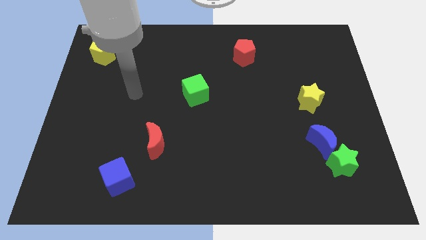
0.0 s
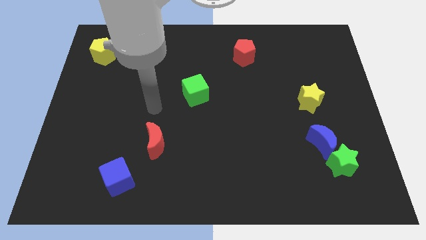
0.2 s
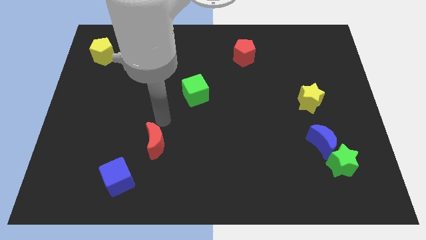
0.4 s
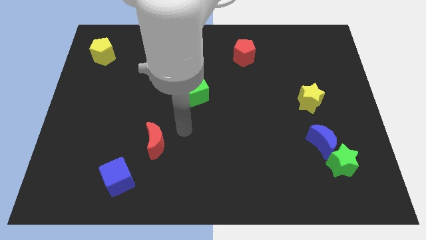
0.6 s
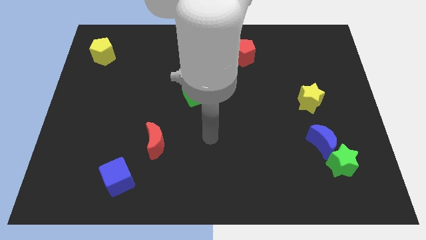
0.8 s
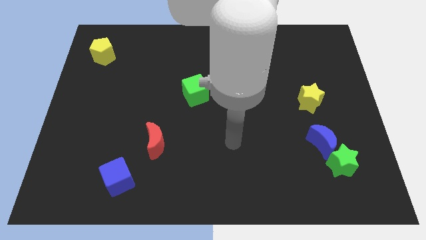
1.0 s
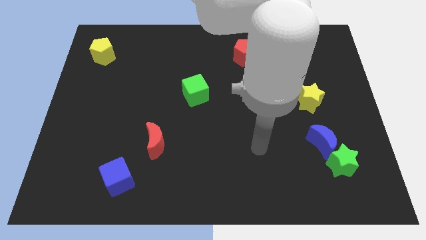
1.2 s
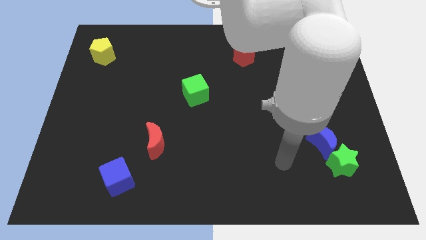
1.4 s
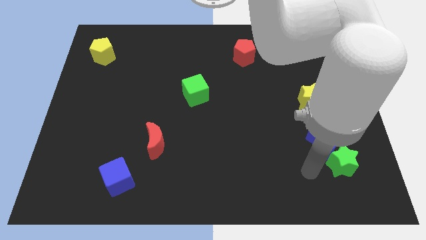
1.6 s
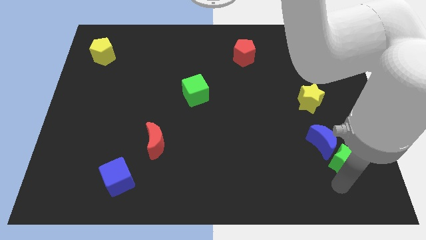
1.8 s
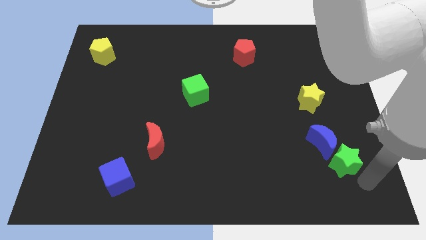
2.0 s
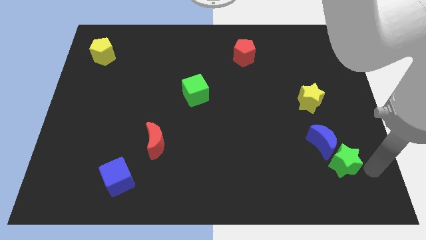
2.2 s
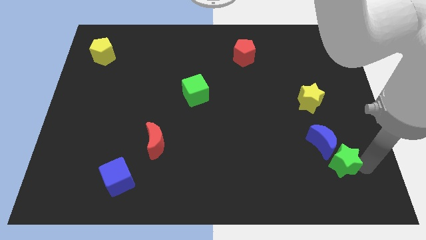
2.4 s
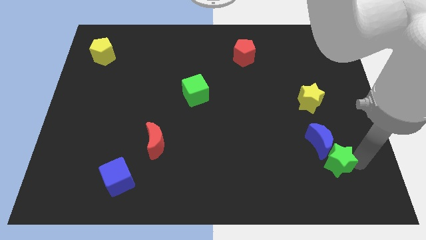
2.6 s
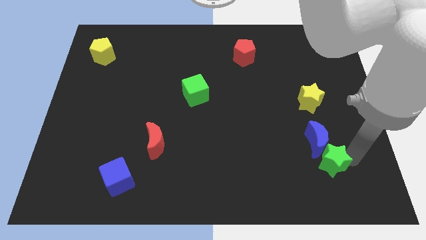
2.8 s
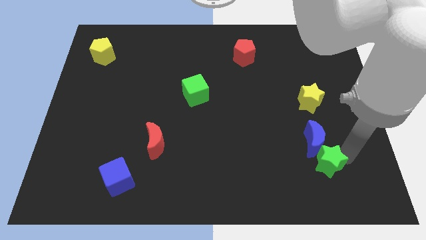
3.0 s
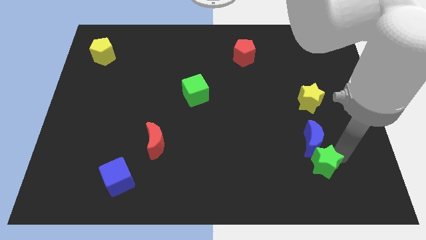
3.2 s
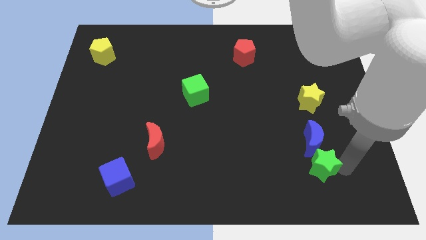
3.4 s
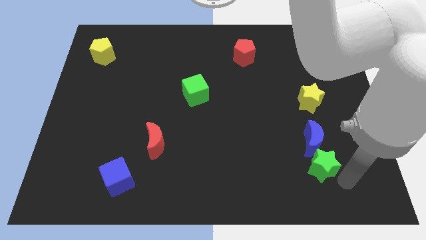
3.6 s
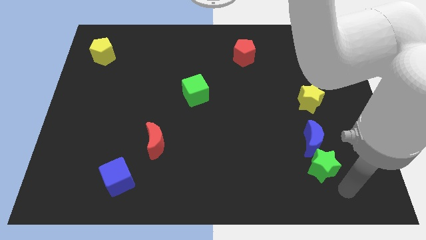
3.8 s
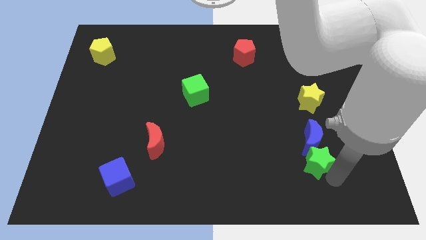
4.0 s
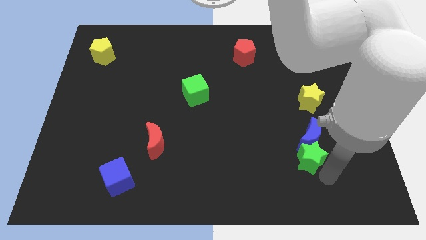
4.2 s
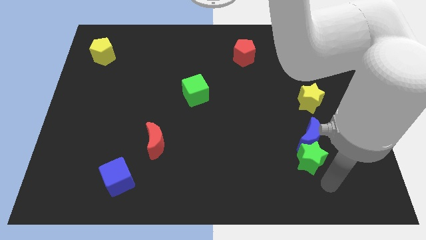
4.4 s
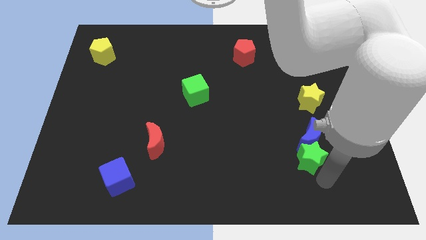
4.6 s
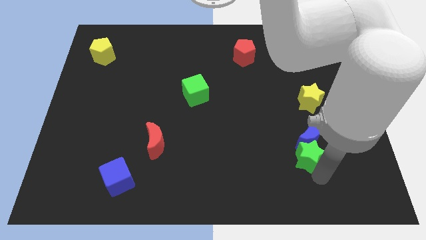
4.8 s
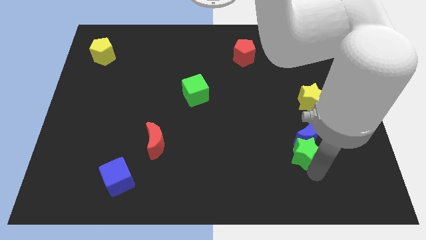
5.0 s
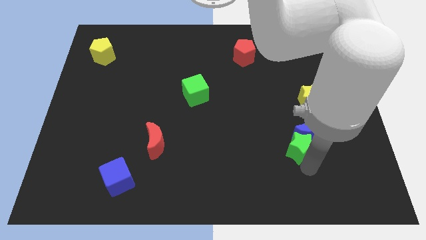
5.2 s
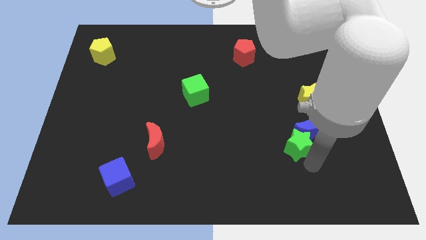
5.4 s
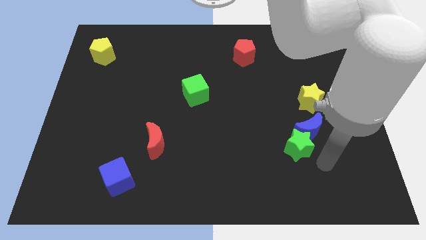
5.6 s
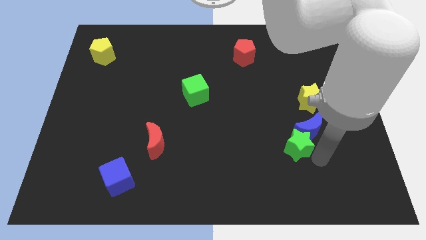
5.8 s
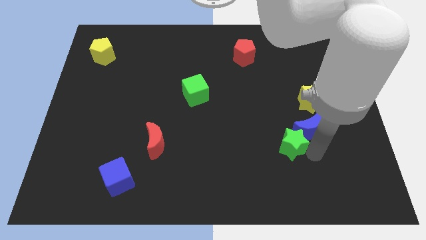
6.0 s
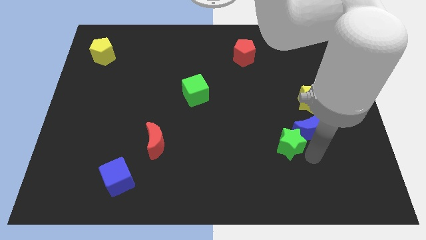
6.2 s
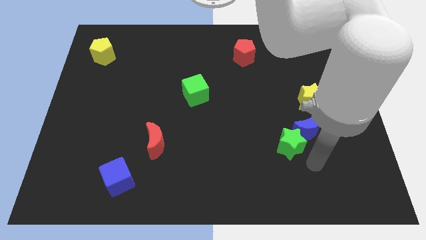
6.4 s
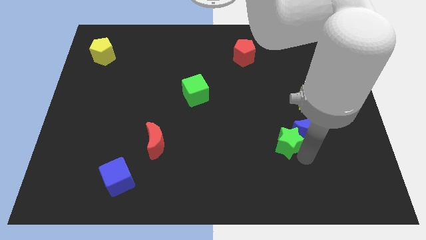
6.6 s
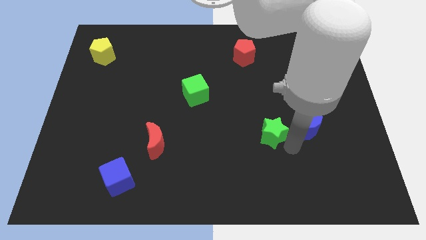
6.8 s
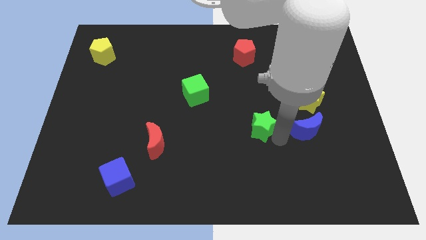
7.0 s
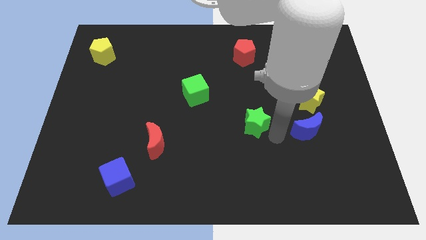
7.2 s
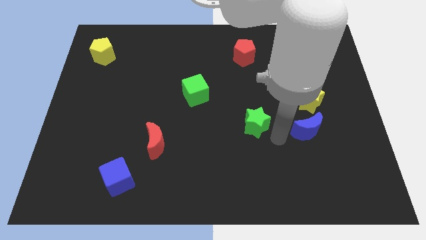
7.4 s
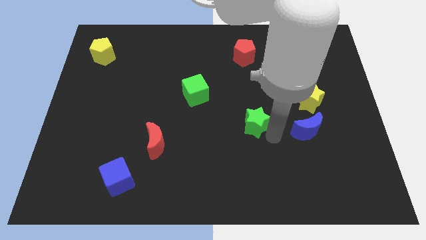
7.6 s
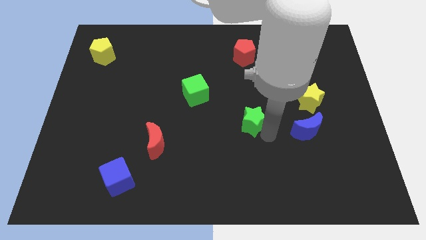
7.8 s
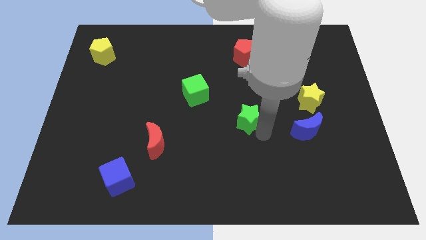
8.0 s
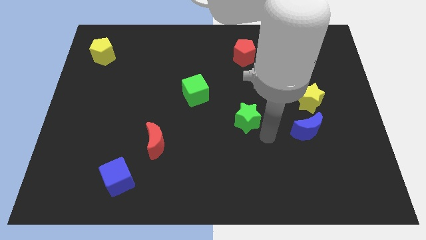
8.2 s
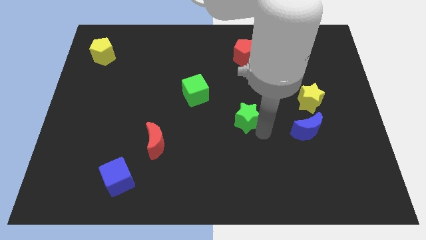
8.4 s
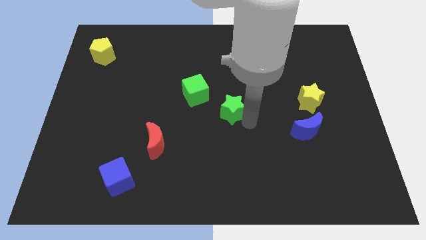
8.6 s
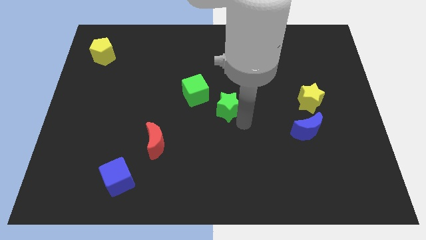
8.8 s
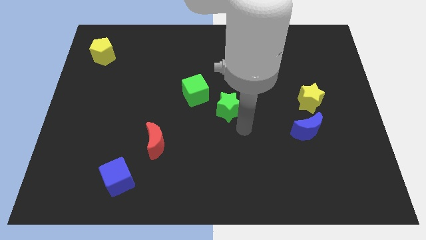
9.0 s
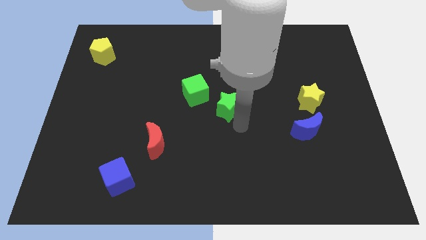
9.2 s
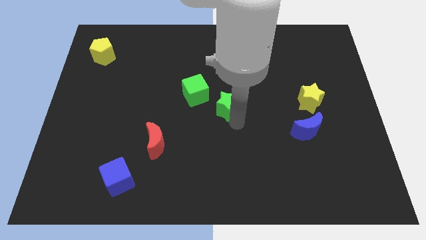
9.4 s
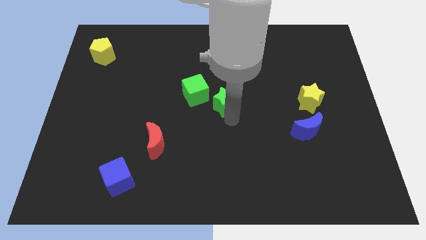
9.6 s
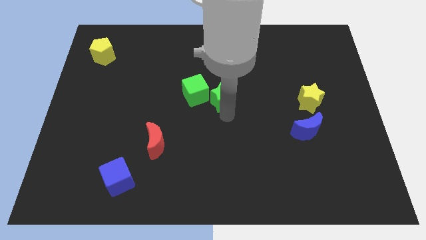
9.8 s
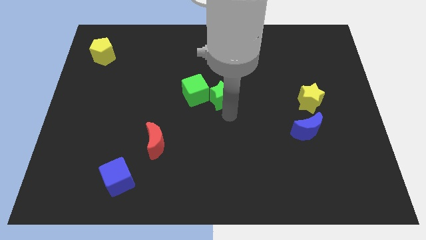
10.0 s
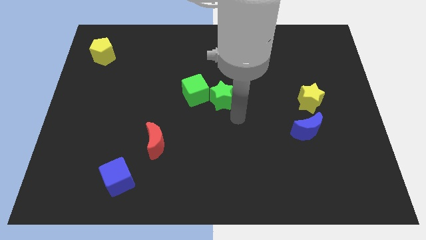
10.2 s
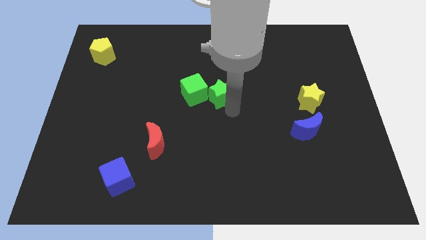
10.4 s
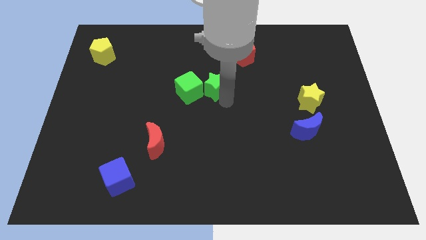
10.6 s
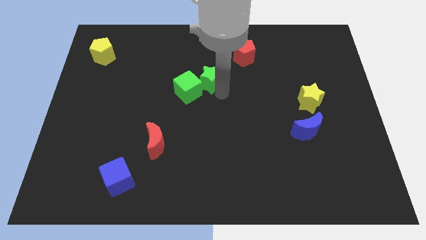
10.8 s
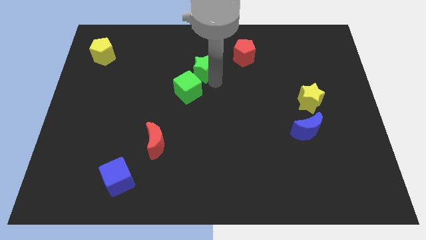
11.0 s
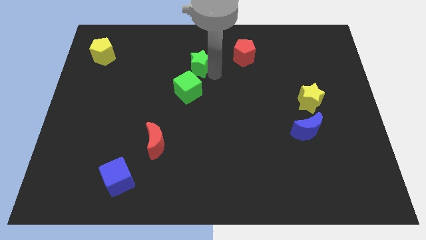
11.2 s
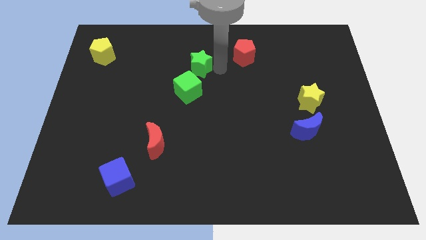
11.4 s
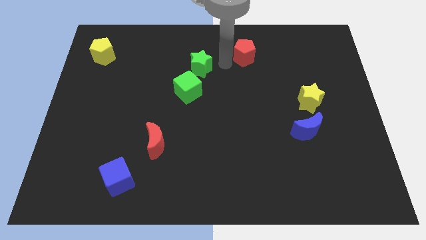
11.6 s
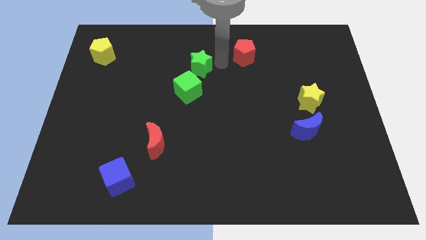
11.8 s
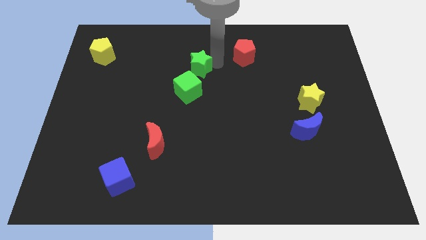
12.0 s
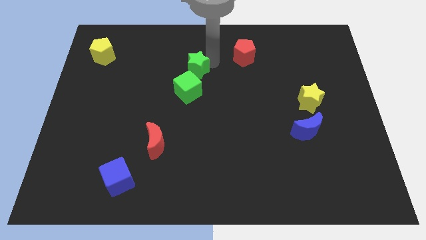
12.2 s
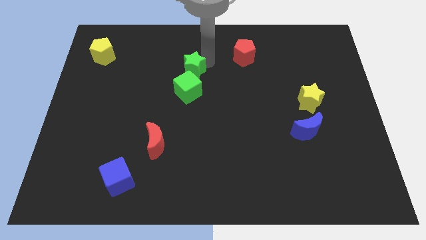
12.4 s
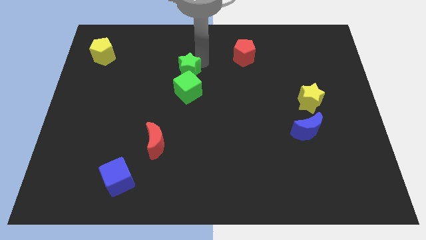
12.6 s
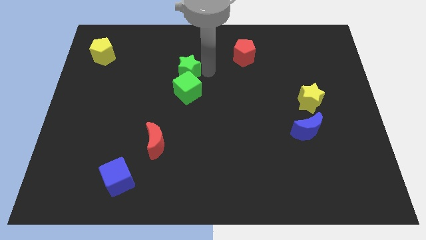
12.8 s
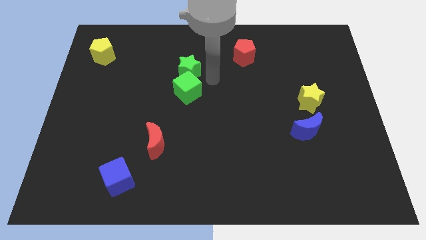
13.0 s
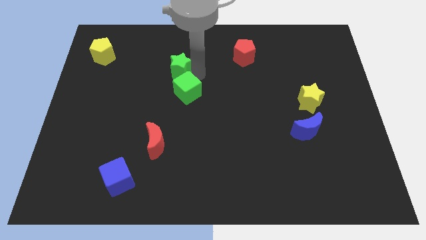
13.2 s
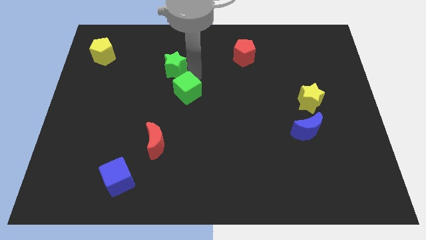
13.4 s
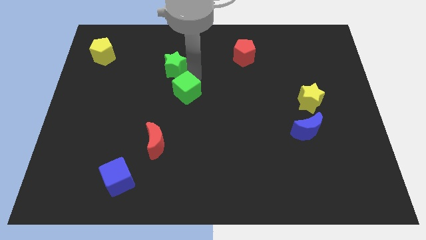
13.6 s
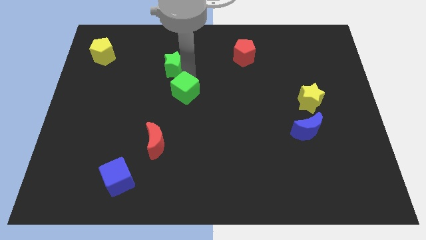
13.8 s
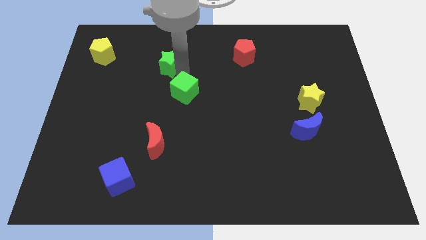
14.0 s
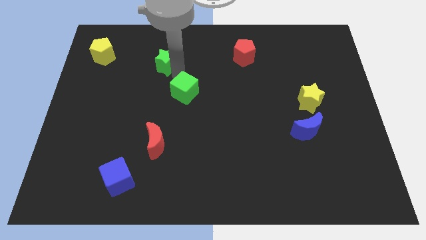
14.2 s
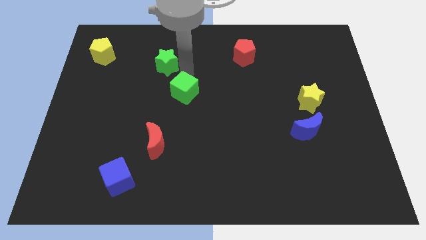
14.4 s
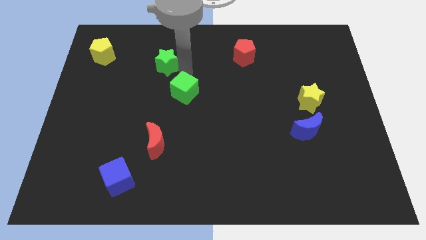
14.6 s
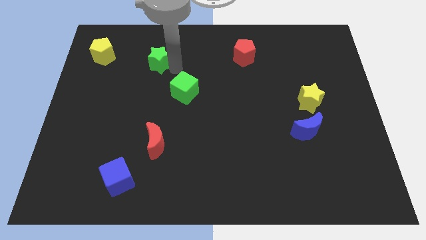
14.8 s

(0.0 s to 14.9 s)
push the green star to the right of the yellow pentagon
